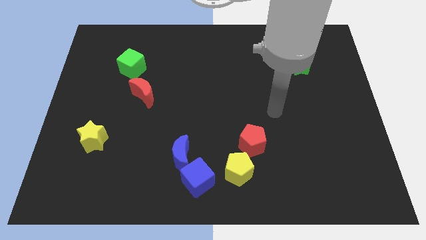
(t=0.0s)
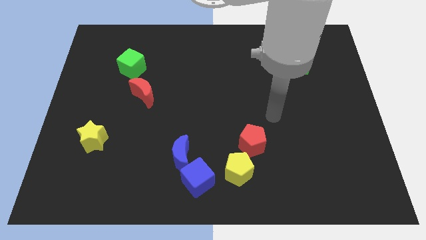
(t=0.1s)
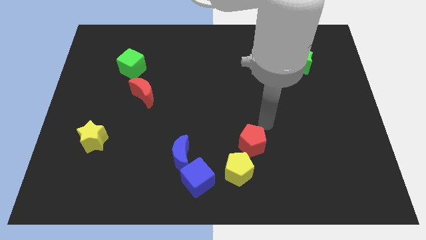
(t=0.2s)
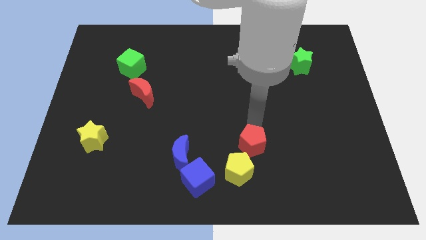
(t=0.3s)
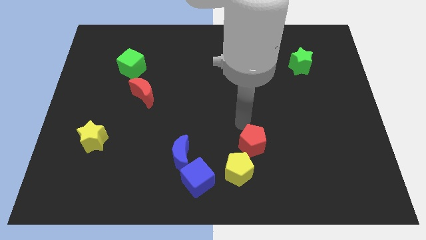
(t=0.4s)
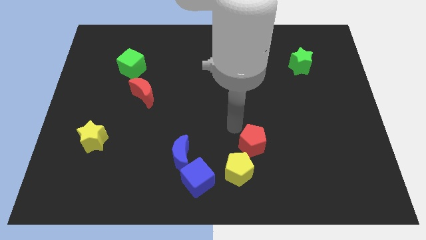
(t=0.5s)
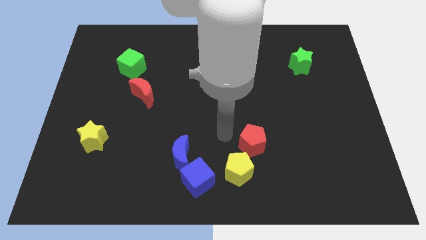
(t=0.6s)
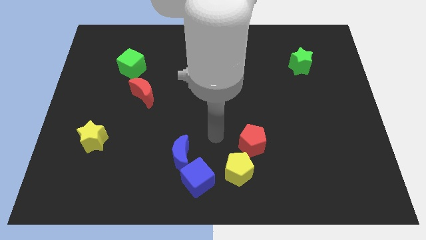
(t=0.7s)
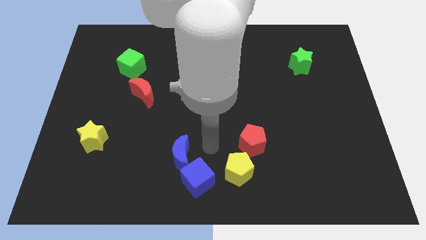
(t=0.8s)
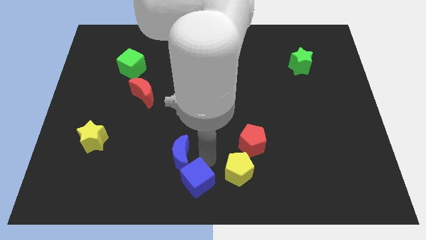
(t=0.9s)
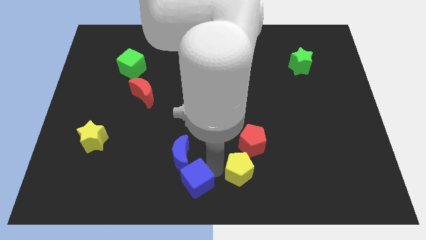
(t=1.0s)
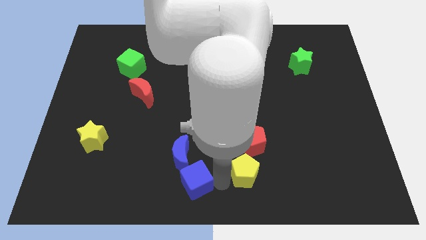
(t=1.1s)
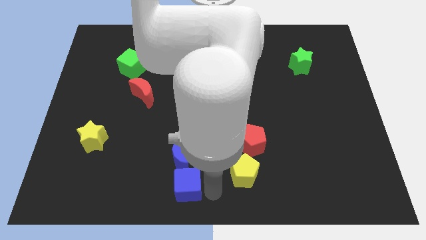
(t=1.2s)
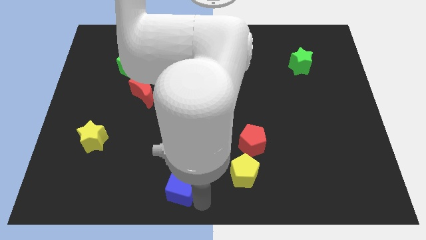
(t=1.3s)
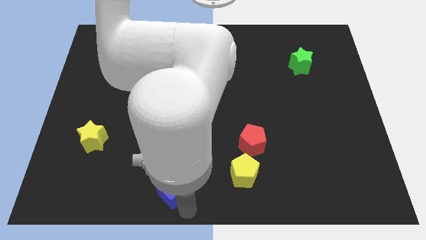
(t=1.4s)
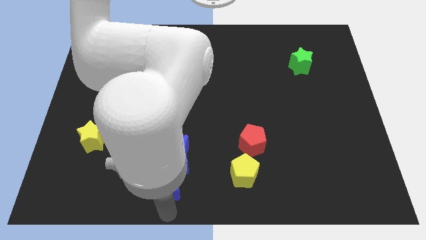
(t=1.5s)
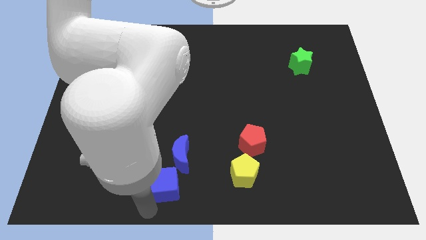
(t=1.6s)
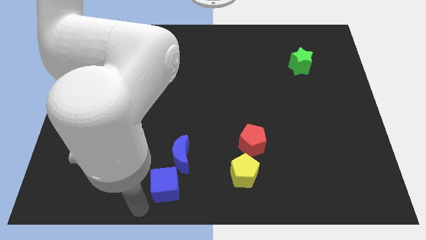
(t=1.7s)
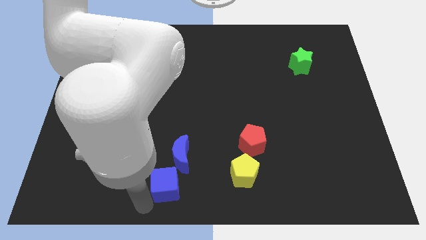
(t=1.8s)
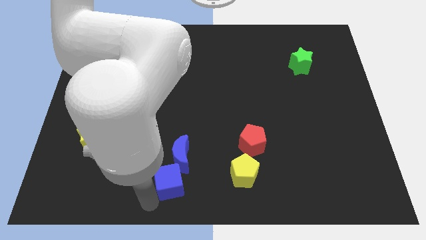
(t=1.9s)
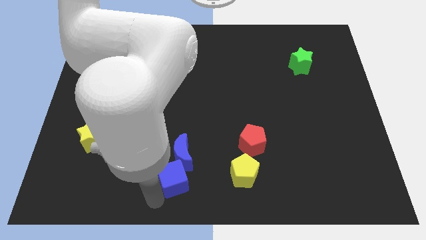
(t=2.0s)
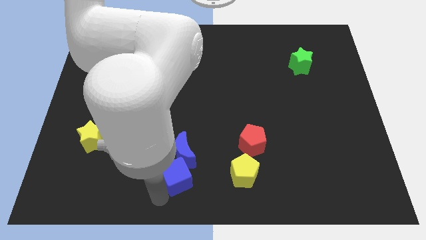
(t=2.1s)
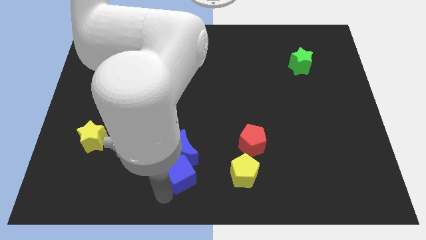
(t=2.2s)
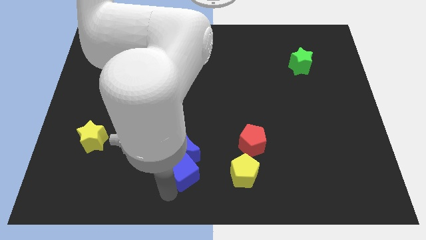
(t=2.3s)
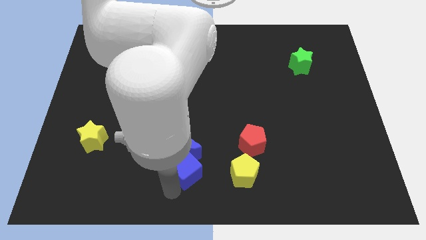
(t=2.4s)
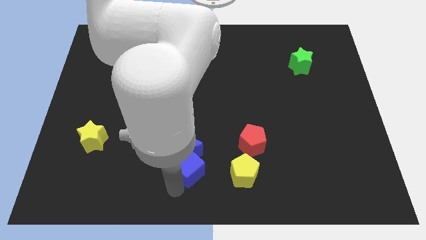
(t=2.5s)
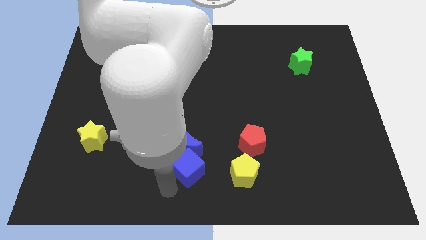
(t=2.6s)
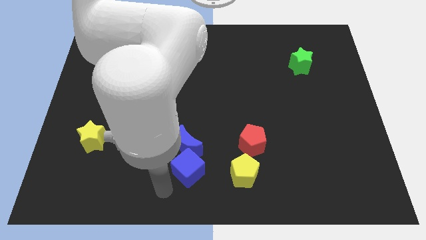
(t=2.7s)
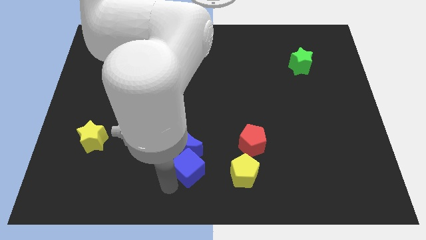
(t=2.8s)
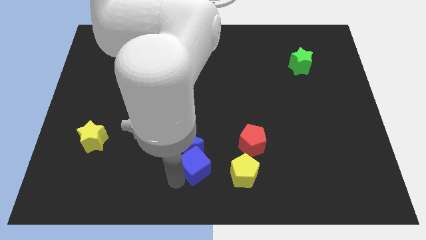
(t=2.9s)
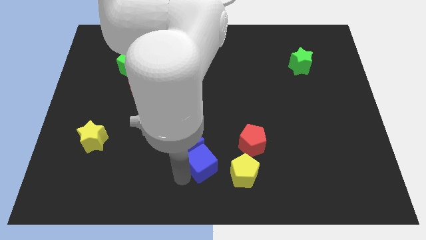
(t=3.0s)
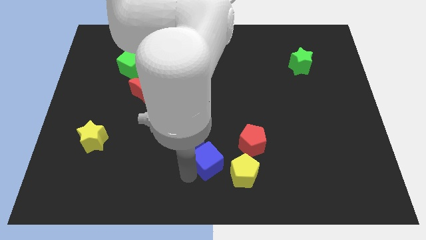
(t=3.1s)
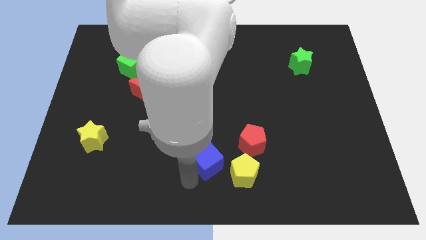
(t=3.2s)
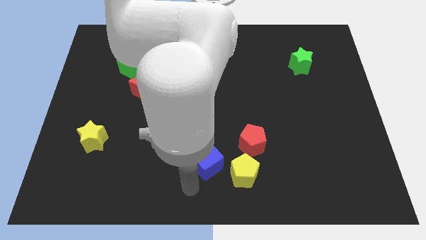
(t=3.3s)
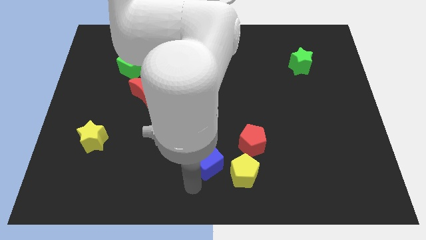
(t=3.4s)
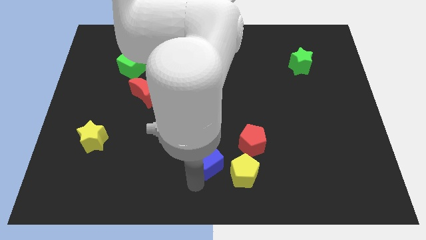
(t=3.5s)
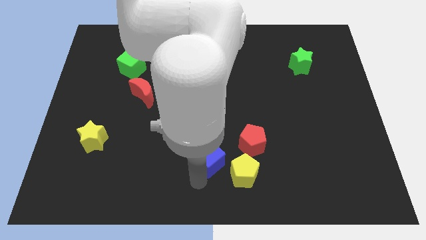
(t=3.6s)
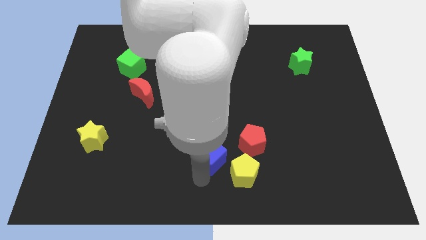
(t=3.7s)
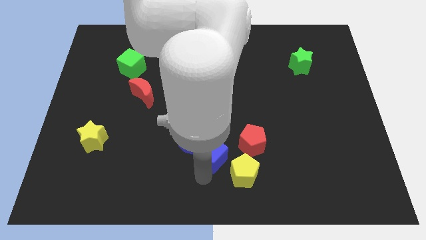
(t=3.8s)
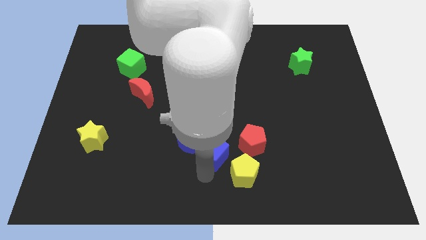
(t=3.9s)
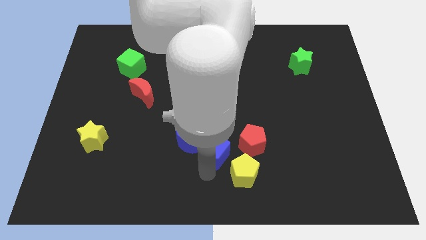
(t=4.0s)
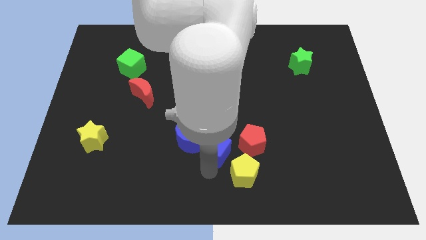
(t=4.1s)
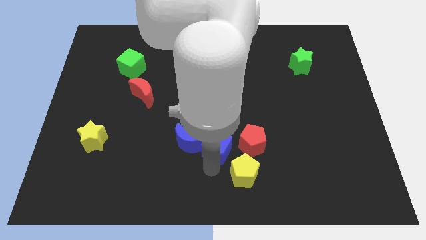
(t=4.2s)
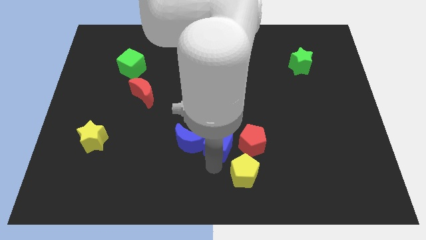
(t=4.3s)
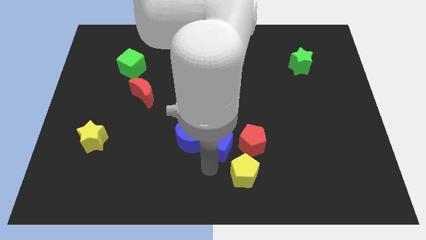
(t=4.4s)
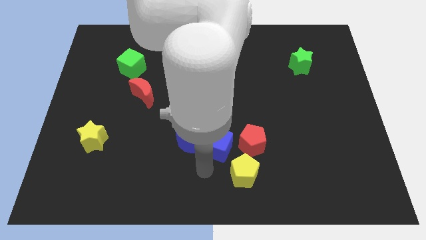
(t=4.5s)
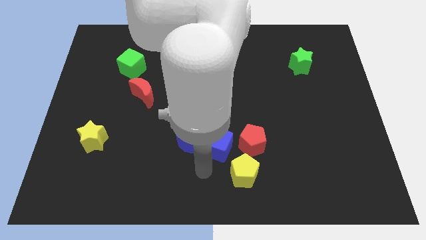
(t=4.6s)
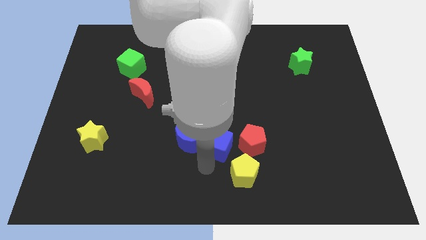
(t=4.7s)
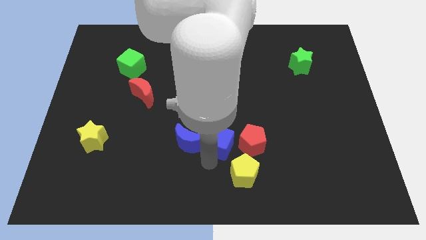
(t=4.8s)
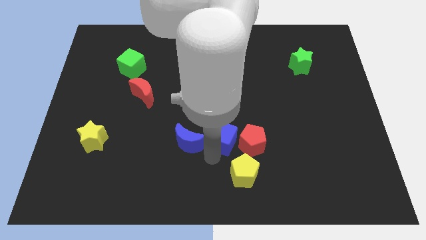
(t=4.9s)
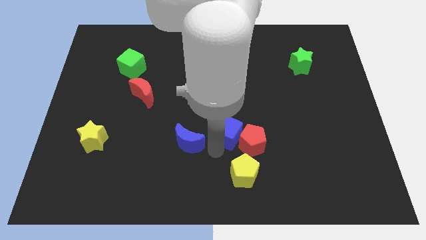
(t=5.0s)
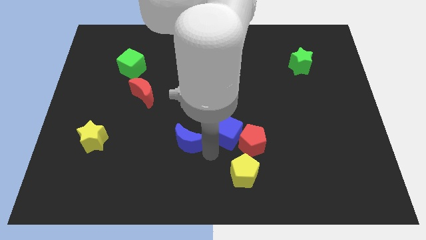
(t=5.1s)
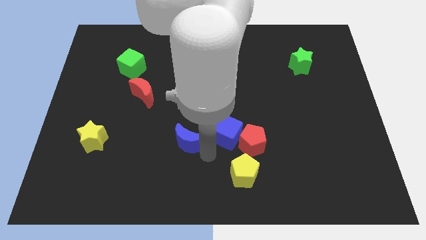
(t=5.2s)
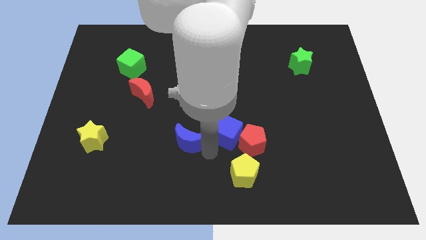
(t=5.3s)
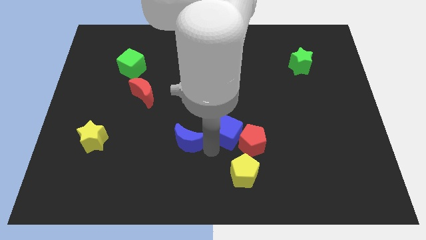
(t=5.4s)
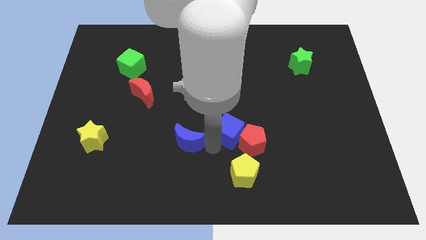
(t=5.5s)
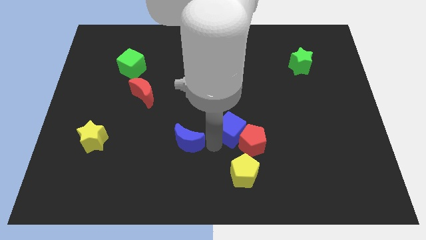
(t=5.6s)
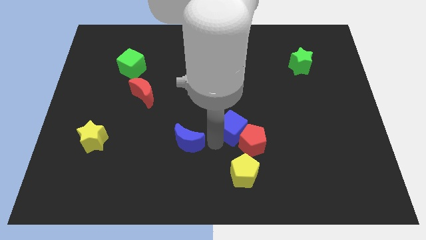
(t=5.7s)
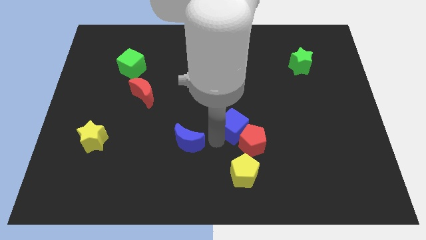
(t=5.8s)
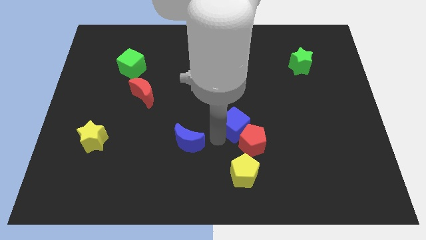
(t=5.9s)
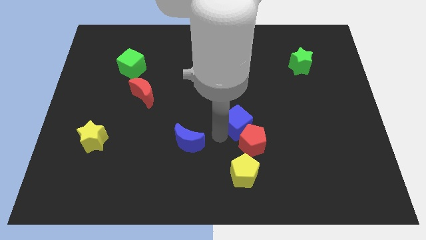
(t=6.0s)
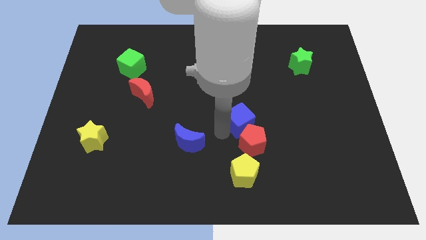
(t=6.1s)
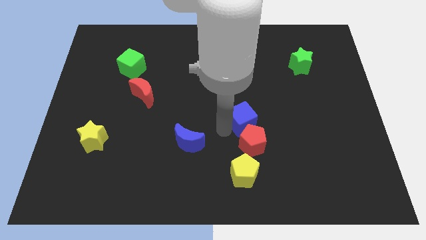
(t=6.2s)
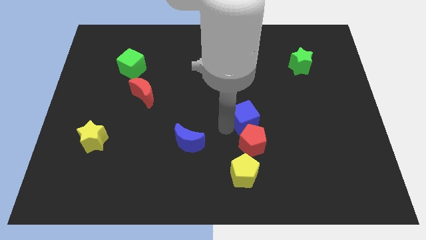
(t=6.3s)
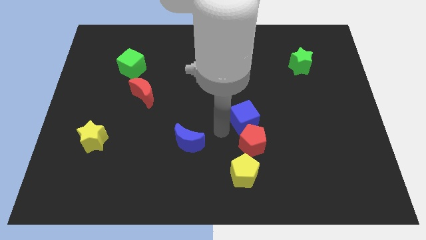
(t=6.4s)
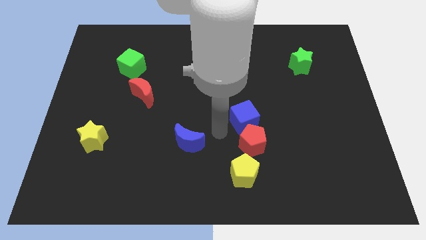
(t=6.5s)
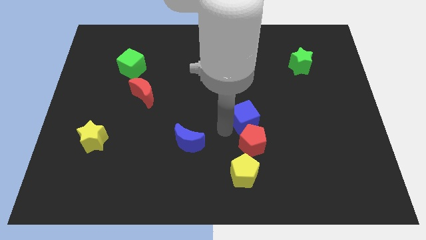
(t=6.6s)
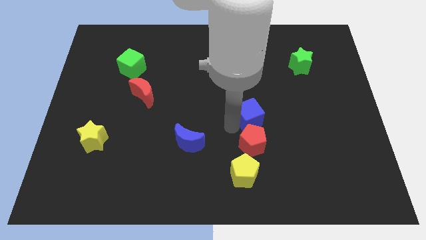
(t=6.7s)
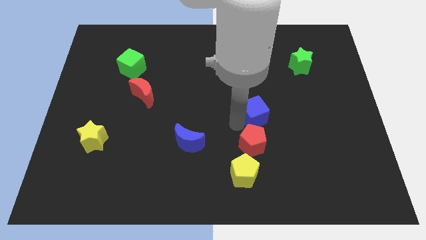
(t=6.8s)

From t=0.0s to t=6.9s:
slide the blue cube upwards and to the right diagonally

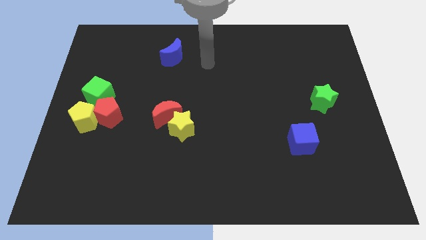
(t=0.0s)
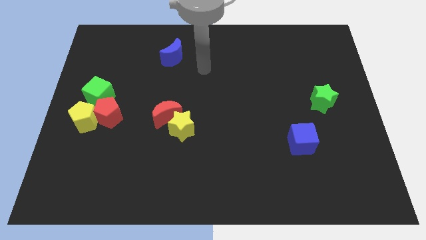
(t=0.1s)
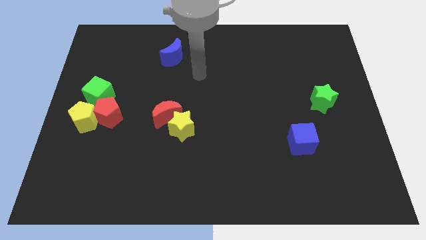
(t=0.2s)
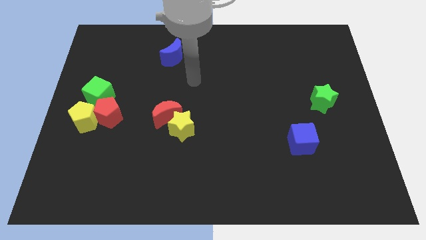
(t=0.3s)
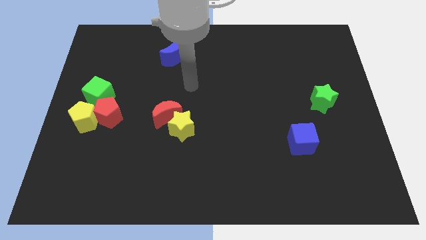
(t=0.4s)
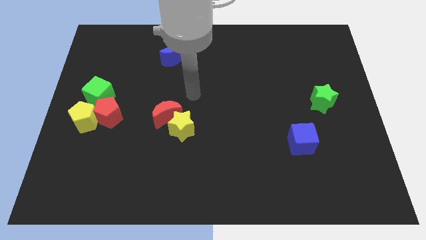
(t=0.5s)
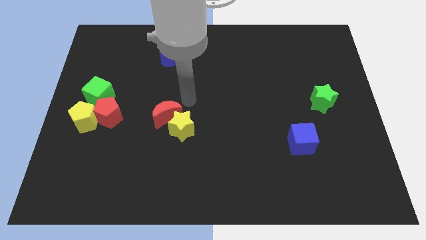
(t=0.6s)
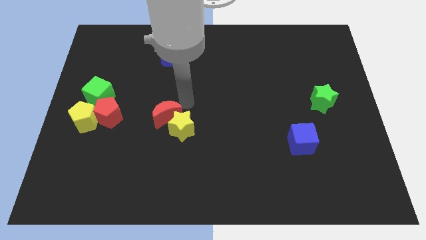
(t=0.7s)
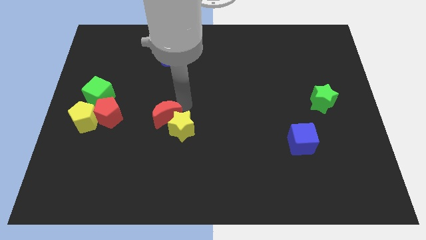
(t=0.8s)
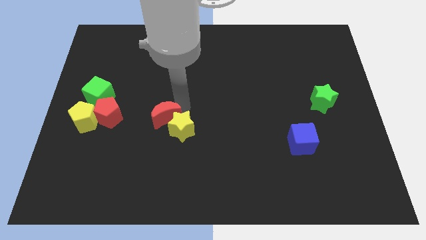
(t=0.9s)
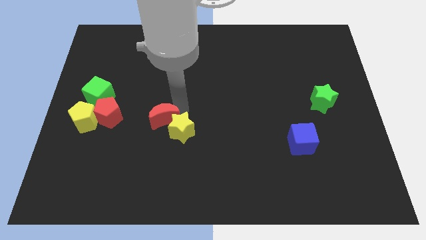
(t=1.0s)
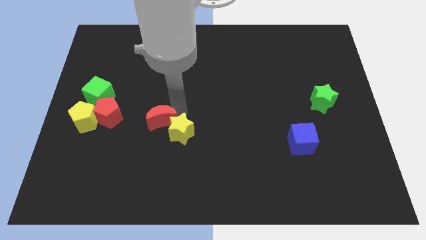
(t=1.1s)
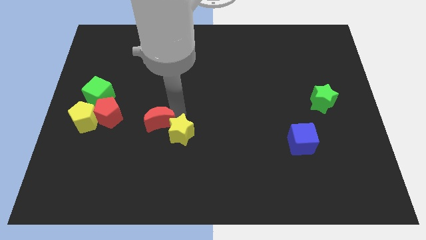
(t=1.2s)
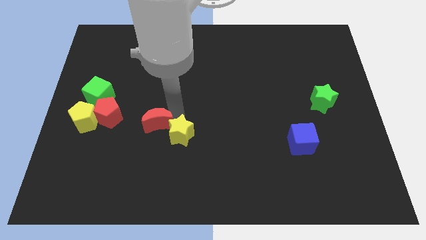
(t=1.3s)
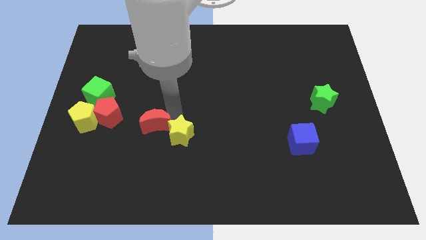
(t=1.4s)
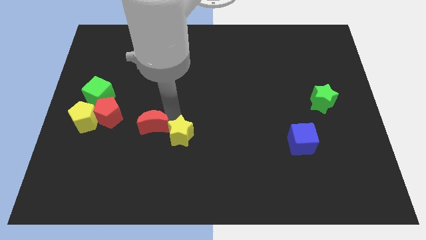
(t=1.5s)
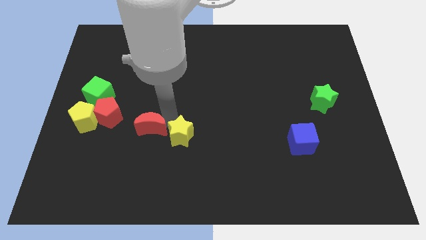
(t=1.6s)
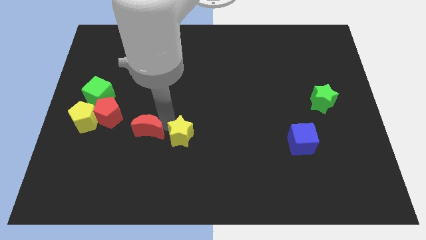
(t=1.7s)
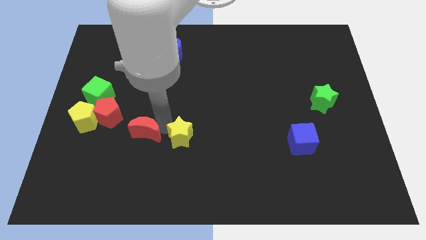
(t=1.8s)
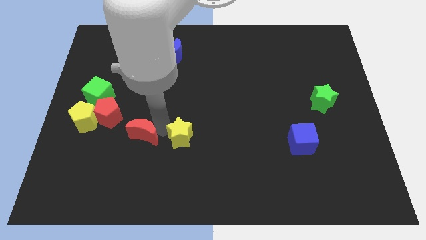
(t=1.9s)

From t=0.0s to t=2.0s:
slide the red moon downwards and left slightly
